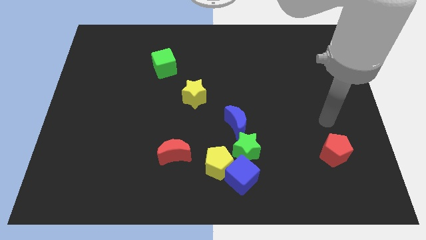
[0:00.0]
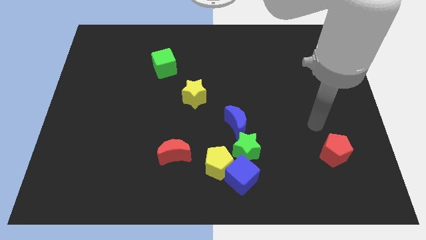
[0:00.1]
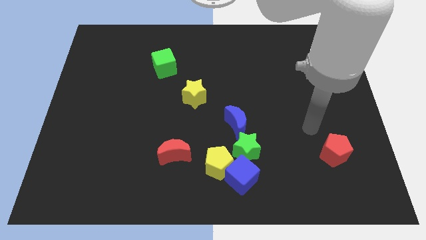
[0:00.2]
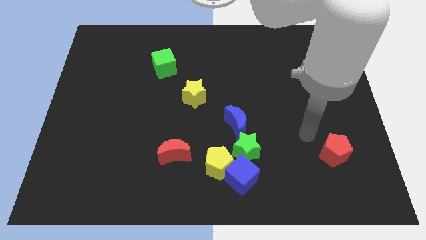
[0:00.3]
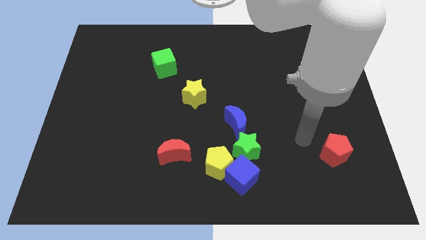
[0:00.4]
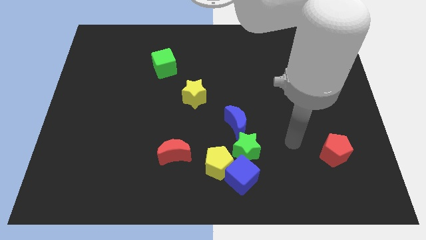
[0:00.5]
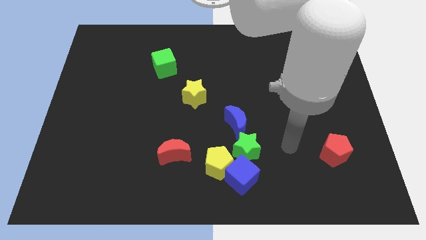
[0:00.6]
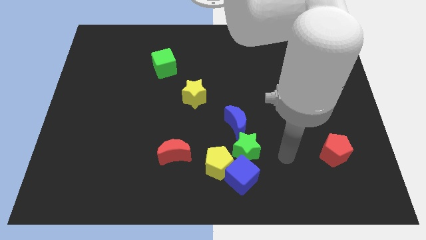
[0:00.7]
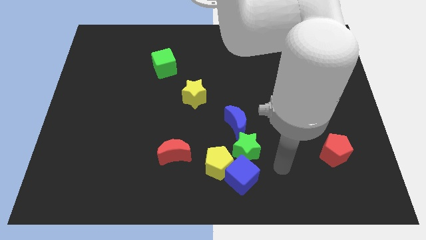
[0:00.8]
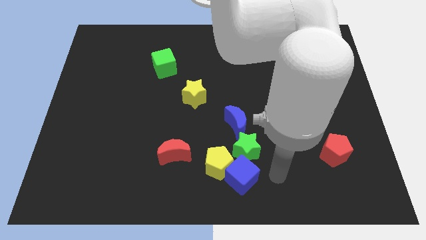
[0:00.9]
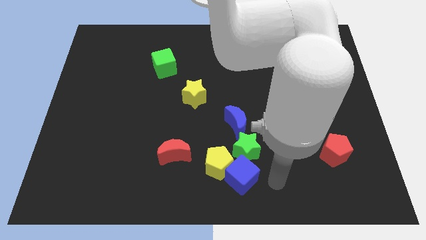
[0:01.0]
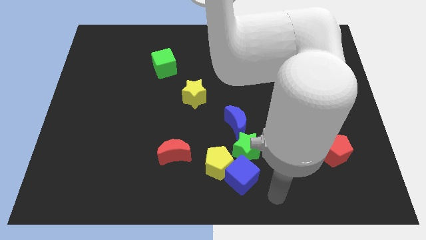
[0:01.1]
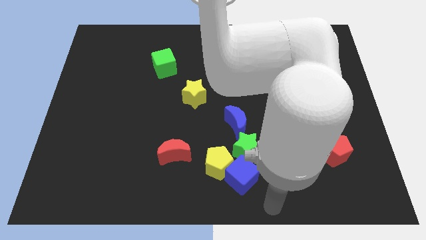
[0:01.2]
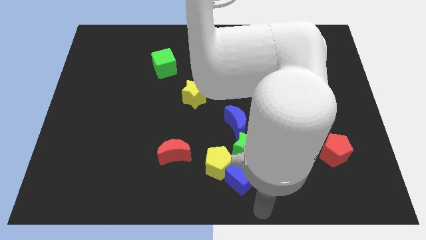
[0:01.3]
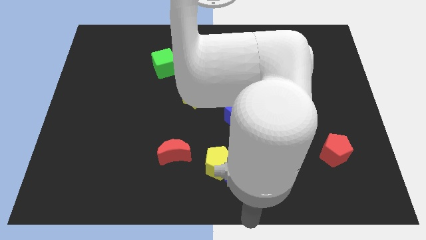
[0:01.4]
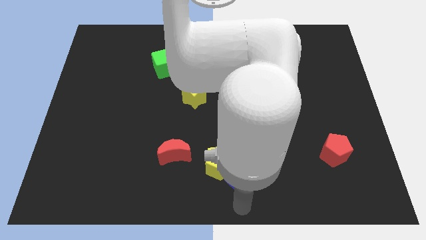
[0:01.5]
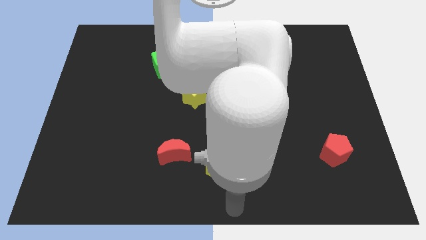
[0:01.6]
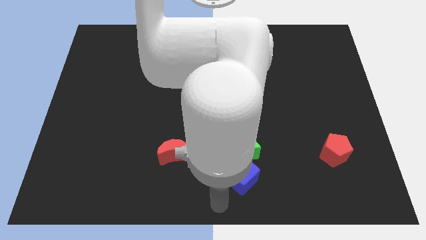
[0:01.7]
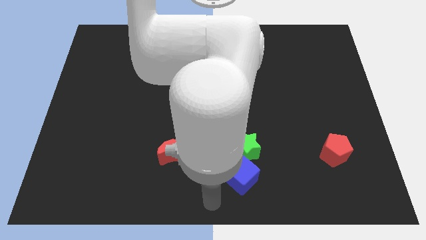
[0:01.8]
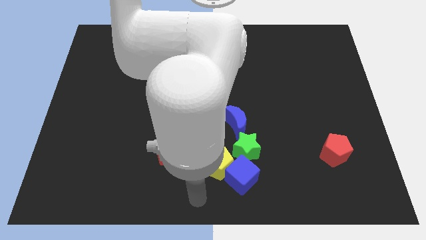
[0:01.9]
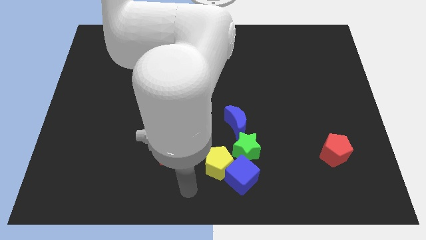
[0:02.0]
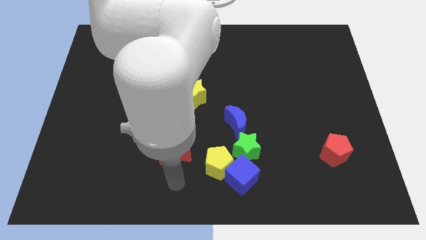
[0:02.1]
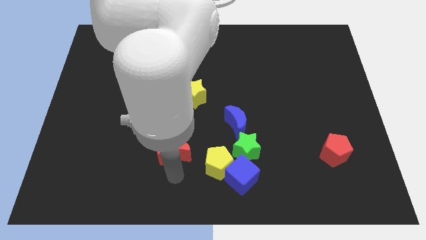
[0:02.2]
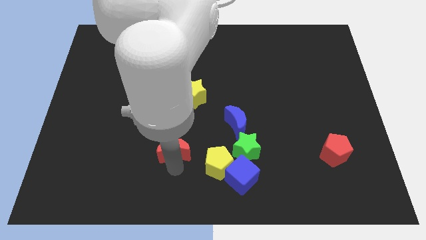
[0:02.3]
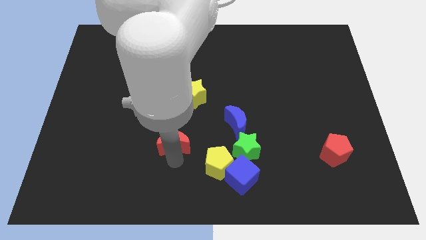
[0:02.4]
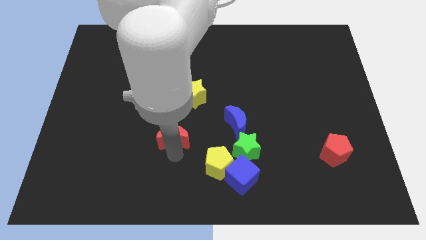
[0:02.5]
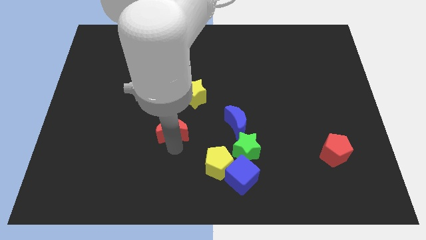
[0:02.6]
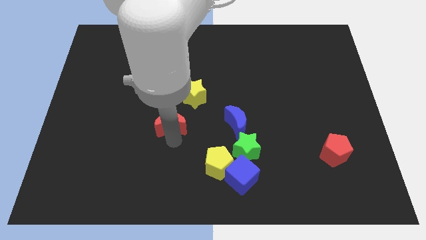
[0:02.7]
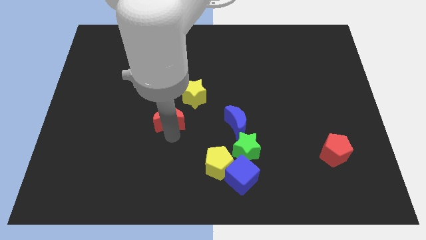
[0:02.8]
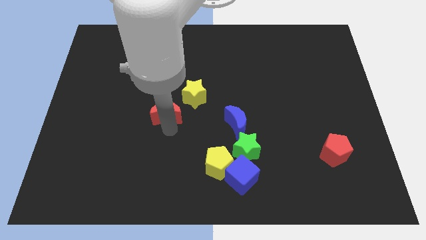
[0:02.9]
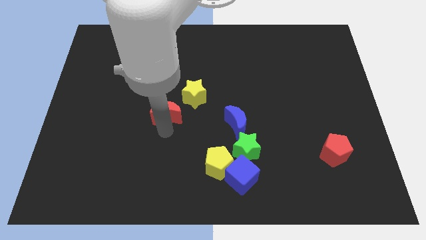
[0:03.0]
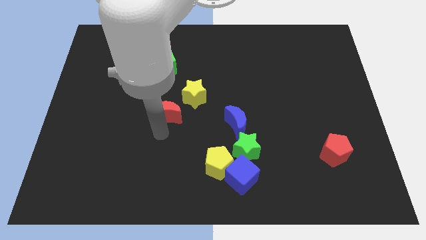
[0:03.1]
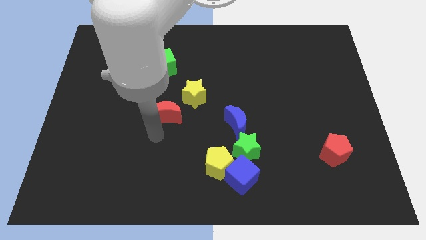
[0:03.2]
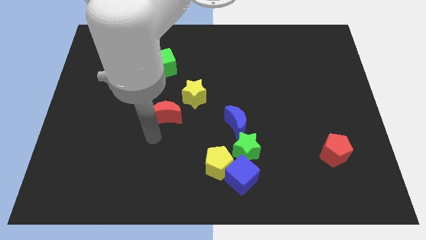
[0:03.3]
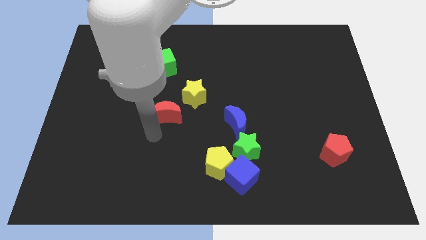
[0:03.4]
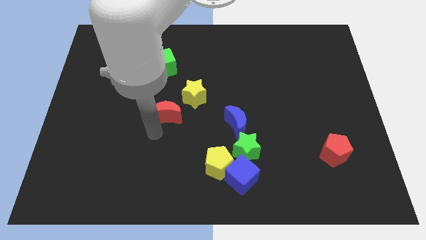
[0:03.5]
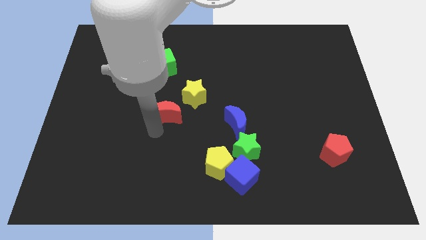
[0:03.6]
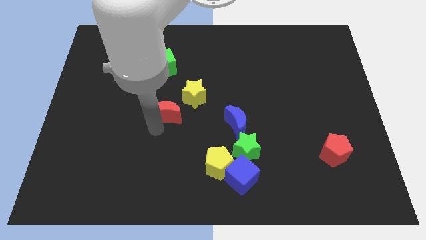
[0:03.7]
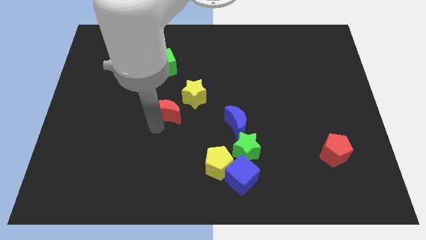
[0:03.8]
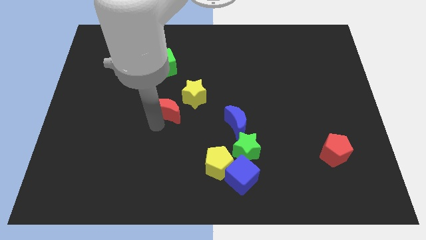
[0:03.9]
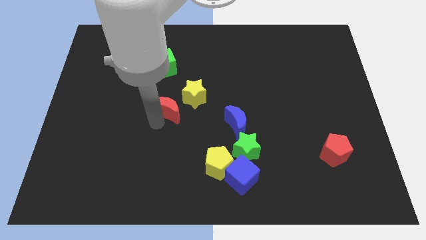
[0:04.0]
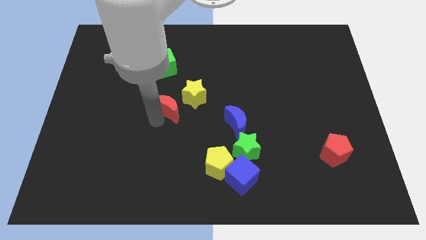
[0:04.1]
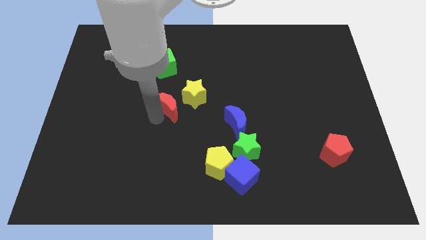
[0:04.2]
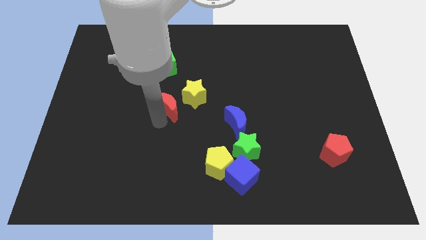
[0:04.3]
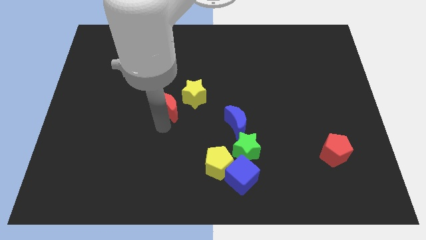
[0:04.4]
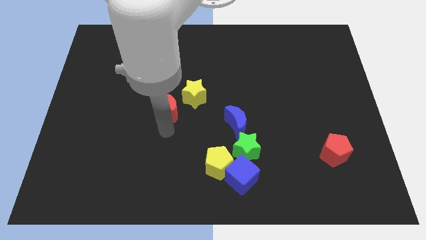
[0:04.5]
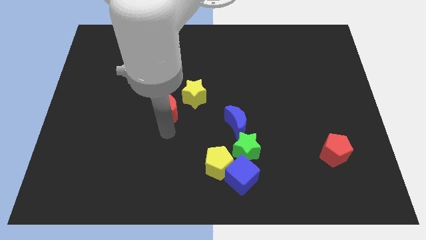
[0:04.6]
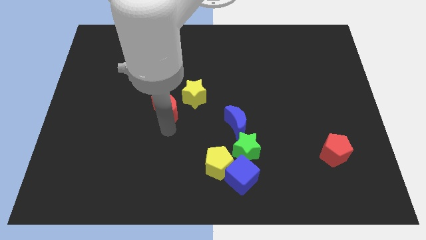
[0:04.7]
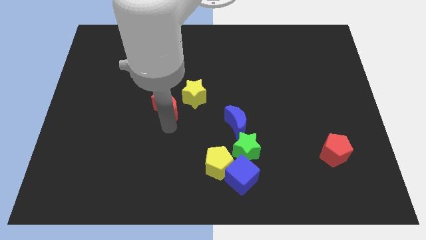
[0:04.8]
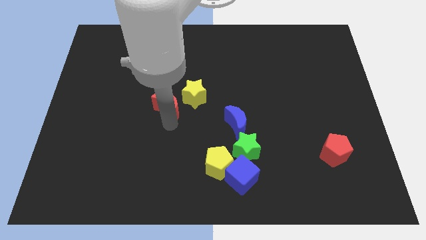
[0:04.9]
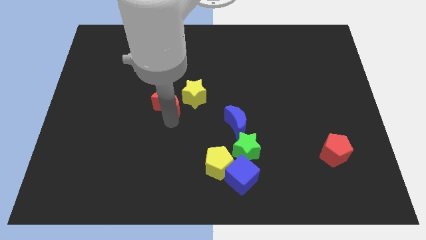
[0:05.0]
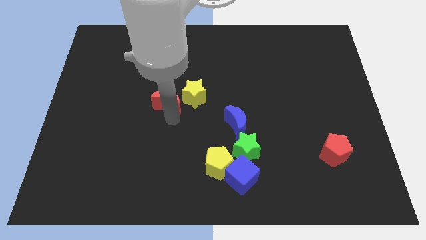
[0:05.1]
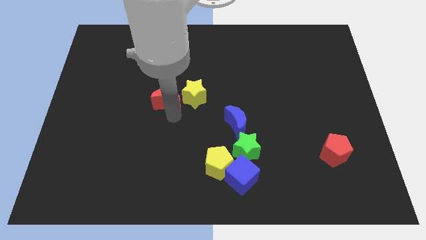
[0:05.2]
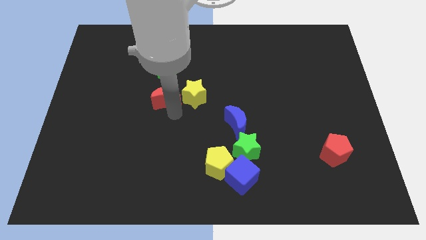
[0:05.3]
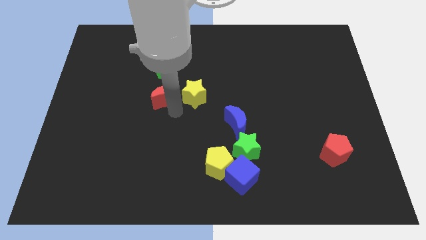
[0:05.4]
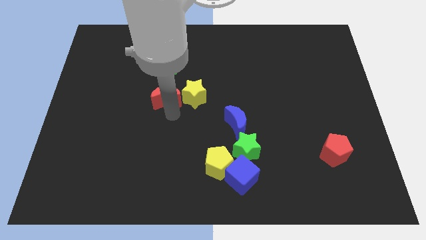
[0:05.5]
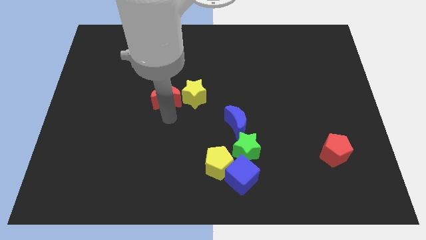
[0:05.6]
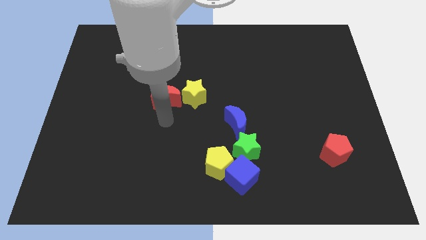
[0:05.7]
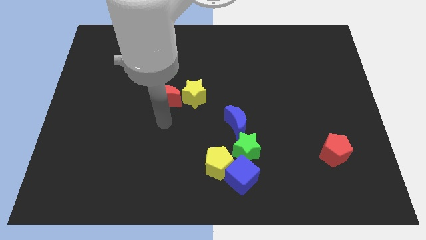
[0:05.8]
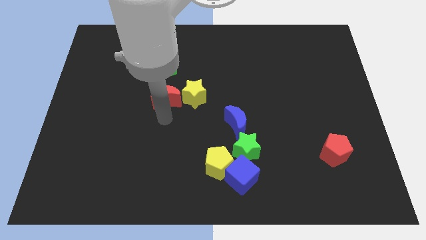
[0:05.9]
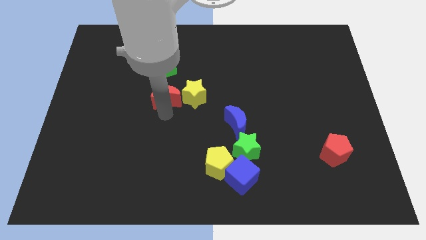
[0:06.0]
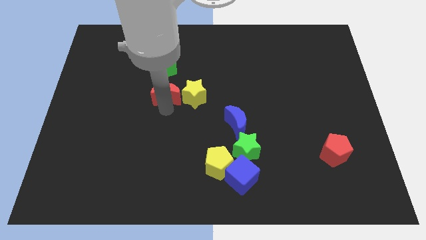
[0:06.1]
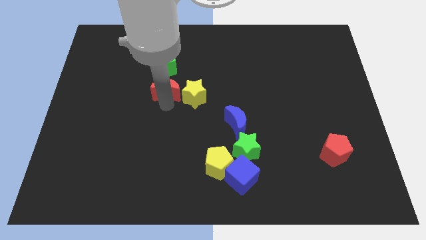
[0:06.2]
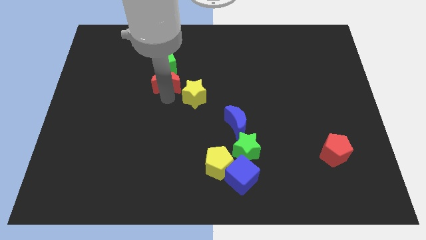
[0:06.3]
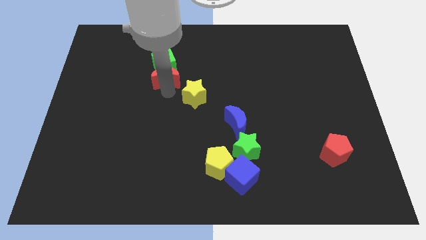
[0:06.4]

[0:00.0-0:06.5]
push the red moon to the green cube

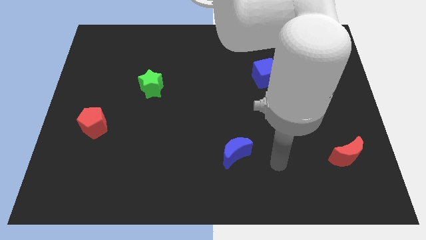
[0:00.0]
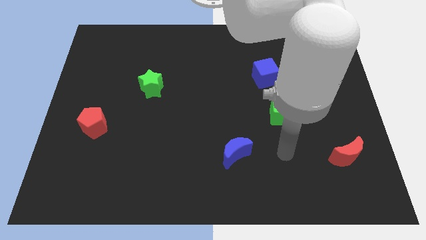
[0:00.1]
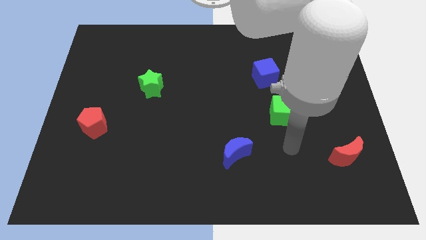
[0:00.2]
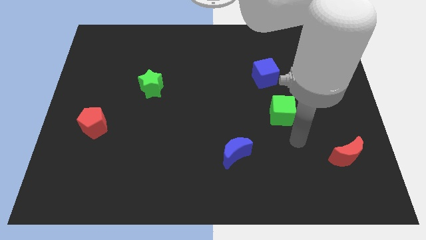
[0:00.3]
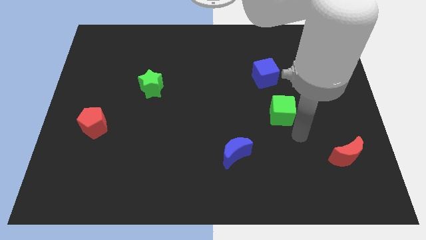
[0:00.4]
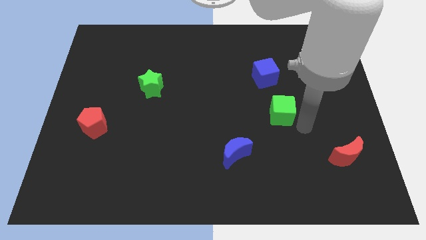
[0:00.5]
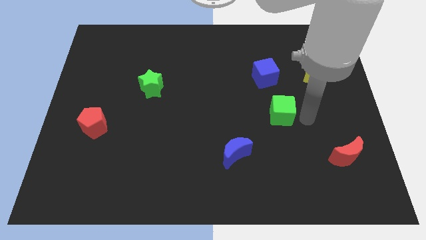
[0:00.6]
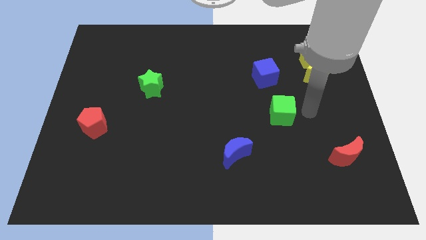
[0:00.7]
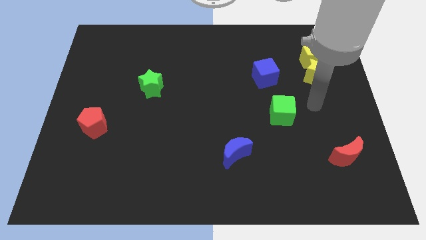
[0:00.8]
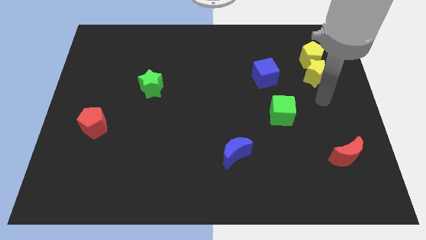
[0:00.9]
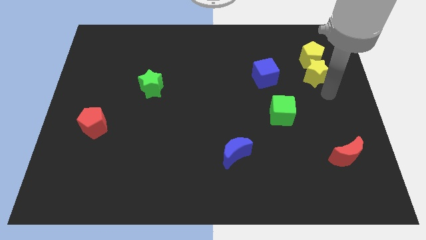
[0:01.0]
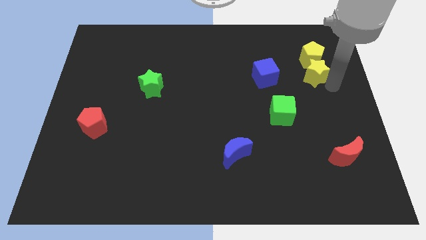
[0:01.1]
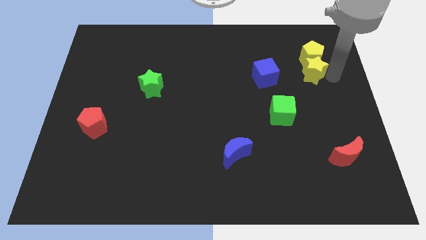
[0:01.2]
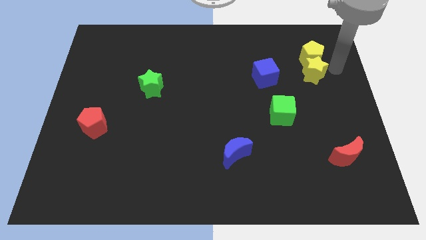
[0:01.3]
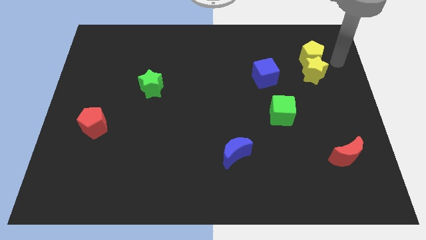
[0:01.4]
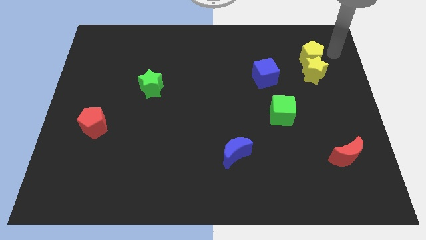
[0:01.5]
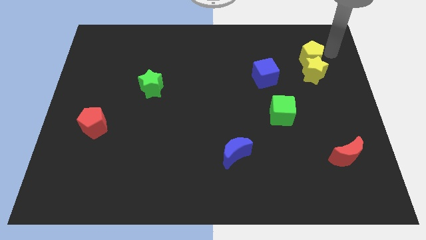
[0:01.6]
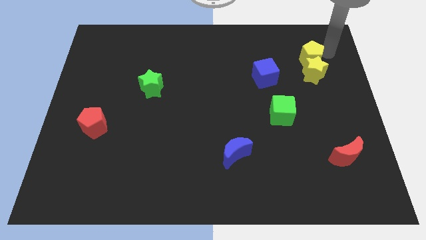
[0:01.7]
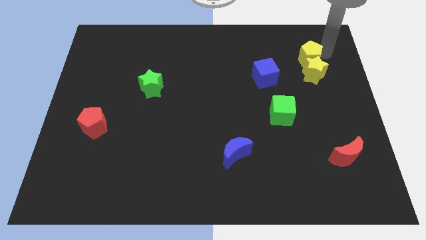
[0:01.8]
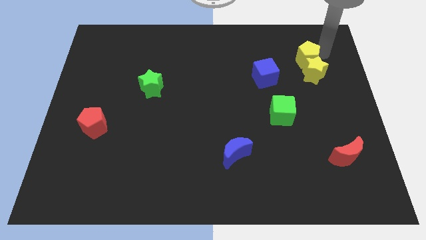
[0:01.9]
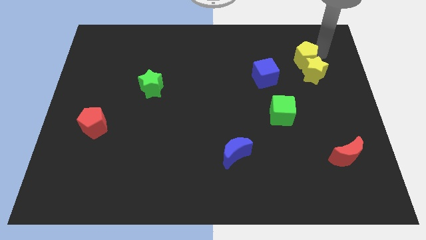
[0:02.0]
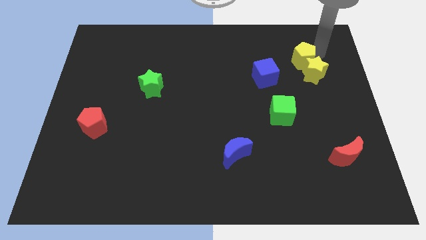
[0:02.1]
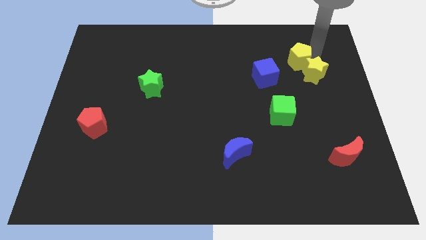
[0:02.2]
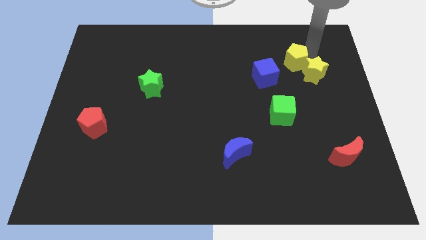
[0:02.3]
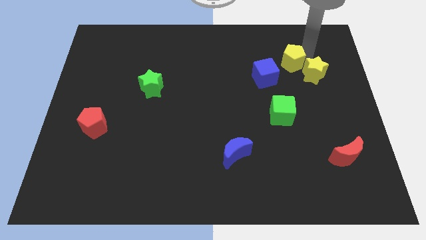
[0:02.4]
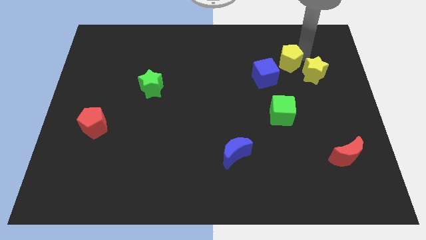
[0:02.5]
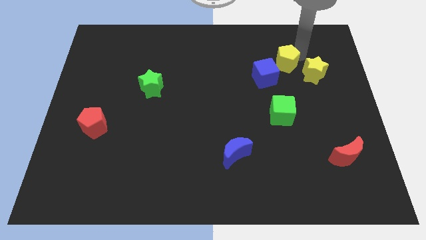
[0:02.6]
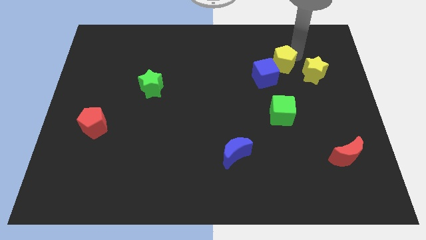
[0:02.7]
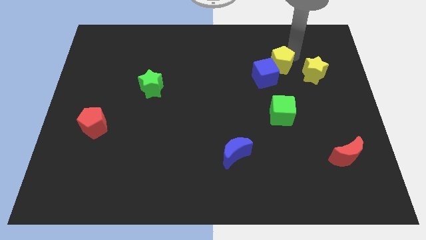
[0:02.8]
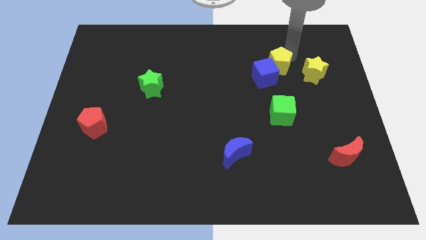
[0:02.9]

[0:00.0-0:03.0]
push the yellow pentagon next to the blue cube
